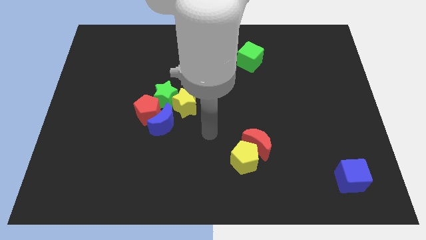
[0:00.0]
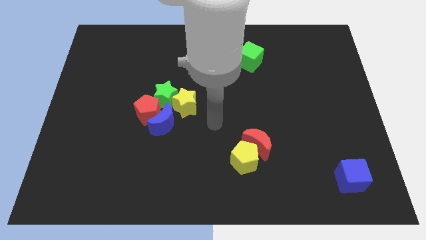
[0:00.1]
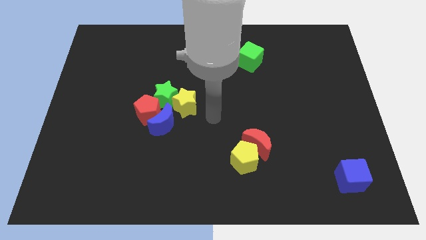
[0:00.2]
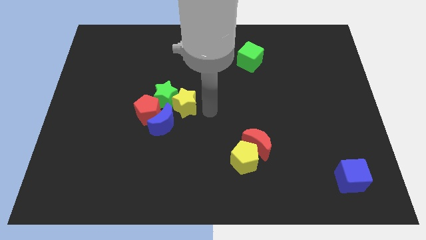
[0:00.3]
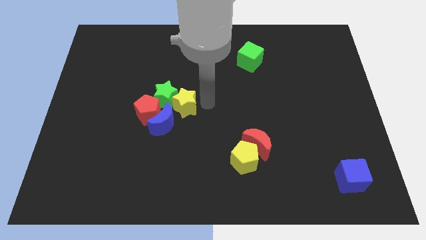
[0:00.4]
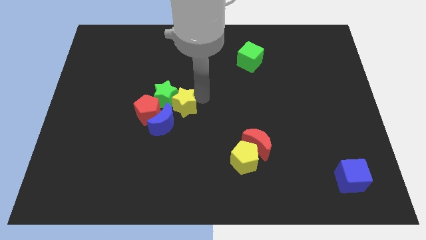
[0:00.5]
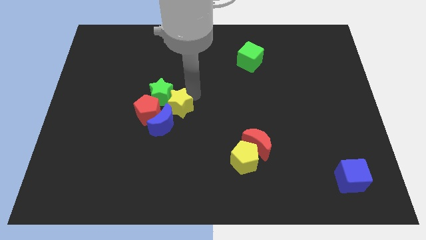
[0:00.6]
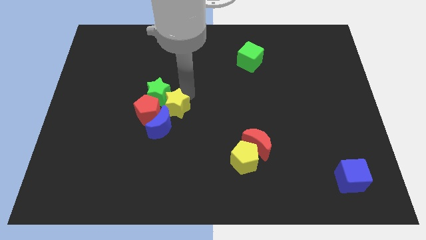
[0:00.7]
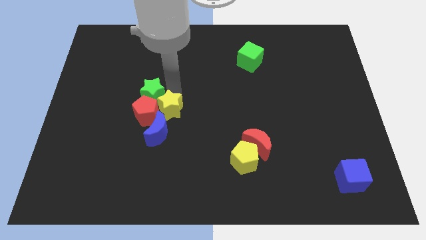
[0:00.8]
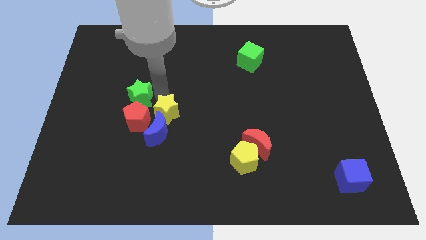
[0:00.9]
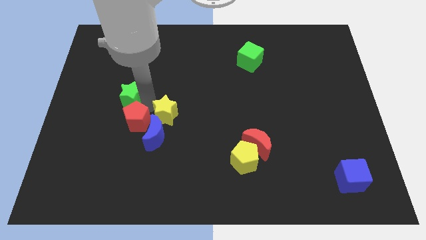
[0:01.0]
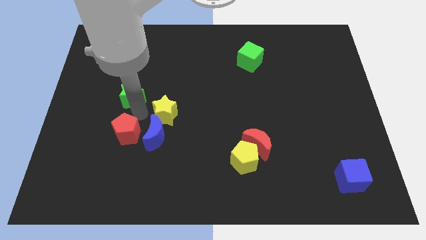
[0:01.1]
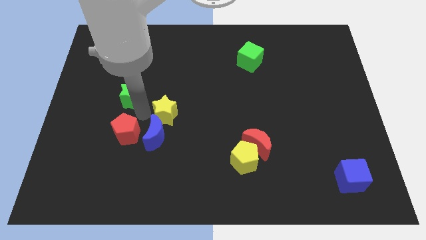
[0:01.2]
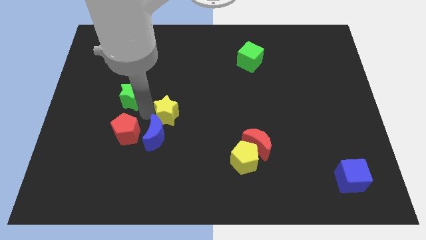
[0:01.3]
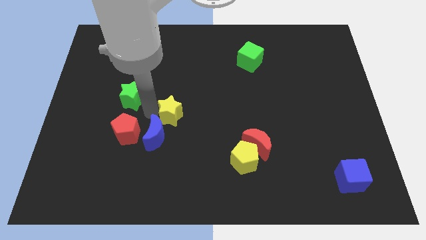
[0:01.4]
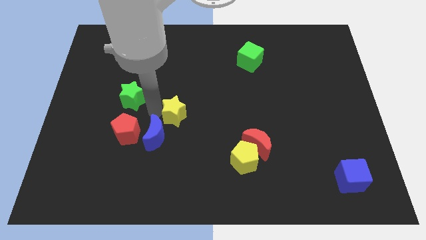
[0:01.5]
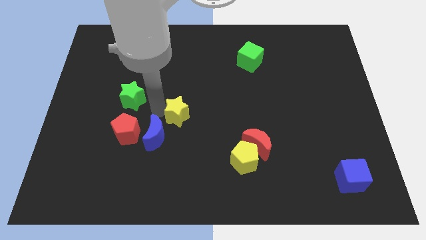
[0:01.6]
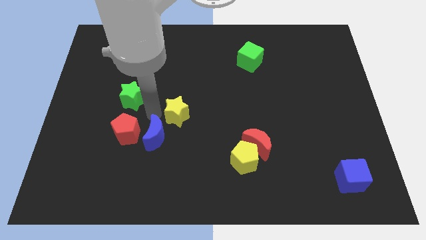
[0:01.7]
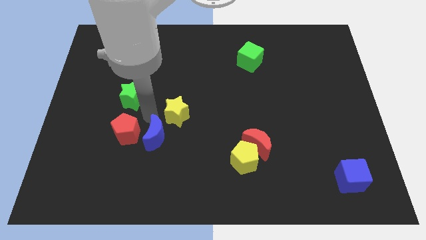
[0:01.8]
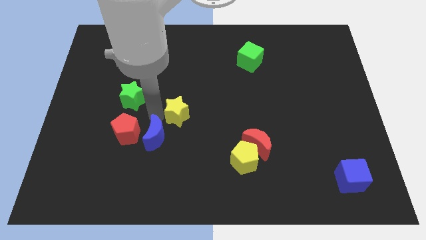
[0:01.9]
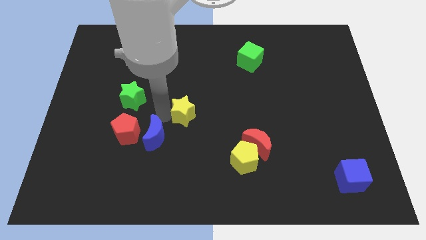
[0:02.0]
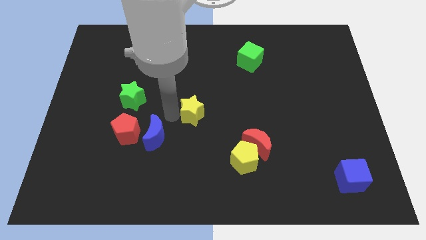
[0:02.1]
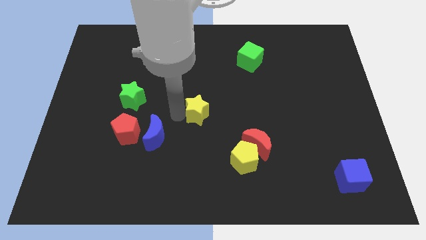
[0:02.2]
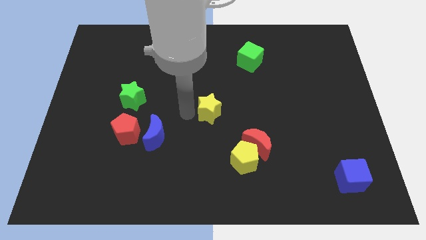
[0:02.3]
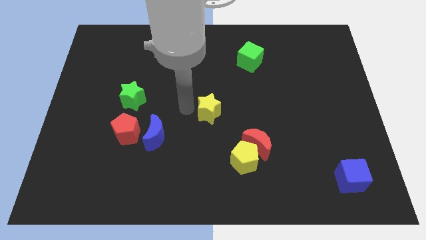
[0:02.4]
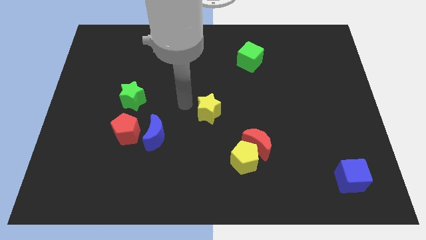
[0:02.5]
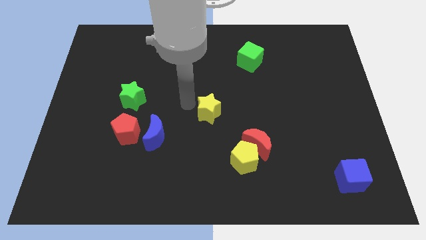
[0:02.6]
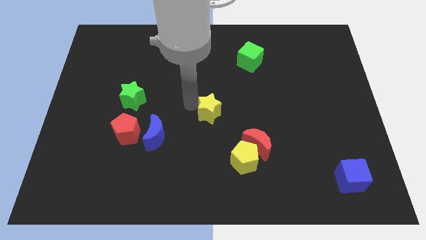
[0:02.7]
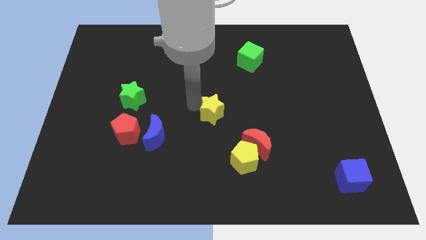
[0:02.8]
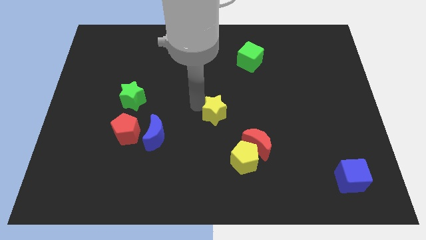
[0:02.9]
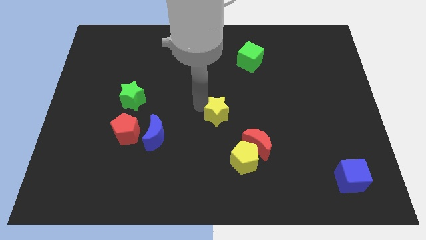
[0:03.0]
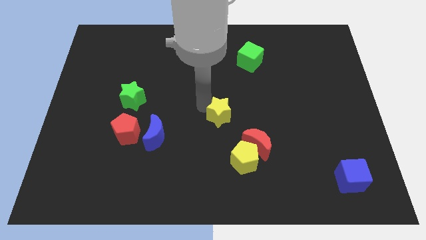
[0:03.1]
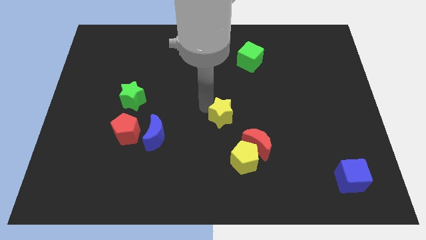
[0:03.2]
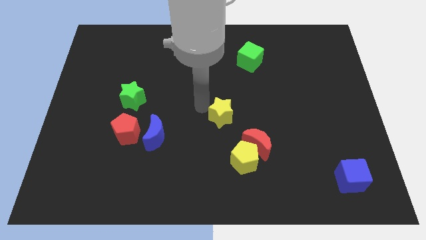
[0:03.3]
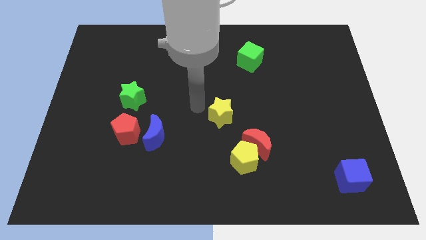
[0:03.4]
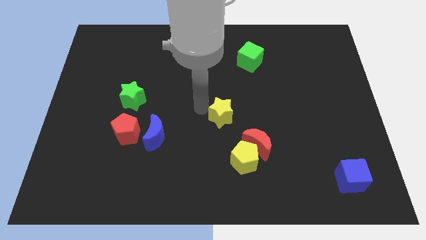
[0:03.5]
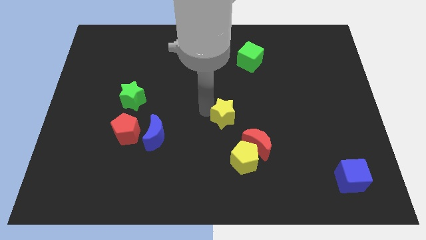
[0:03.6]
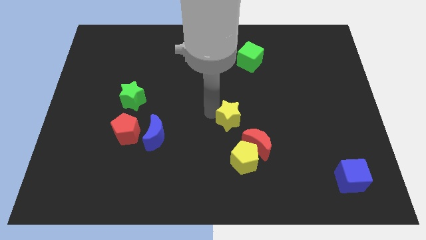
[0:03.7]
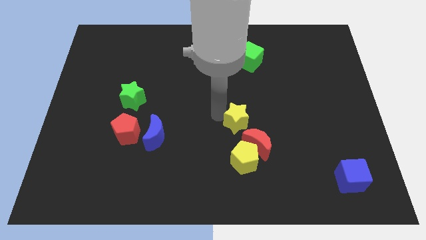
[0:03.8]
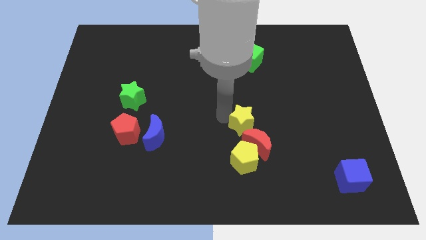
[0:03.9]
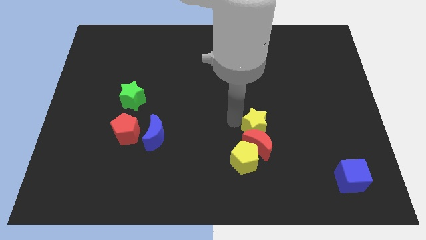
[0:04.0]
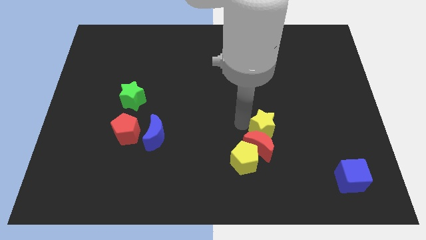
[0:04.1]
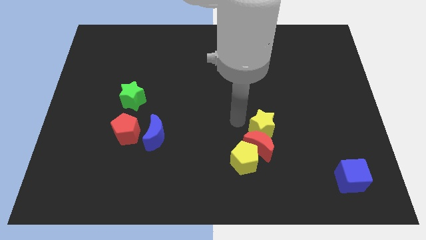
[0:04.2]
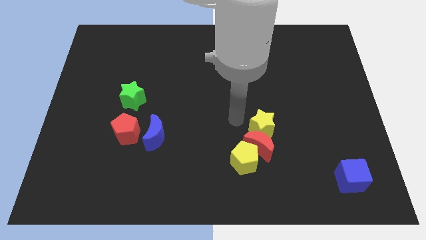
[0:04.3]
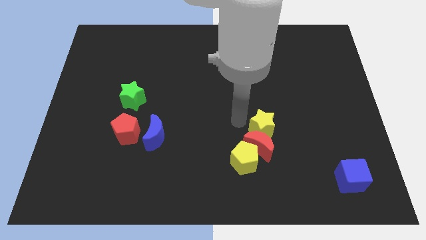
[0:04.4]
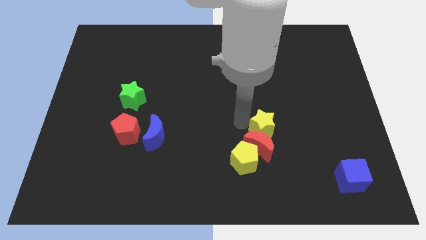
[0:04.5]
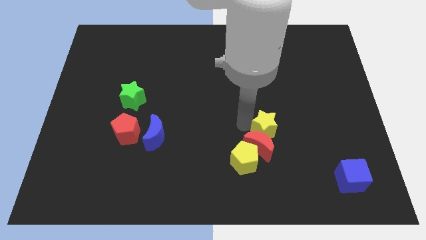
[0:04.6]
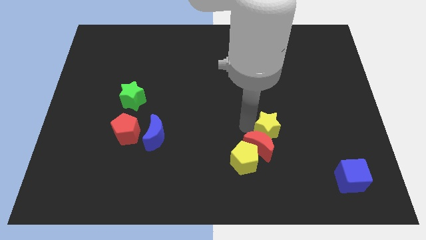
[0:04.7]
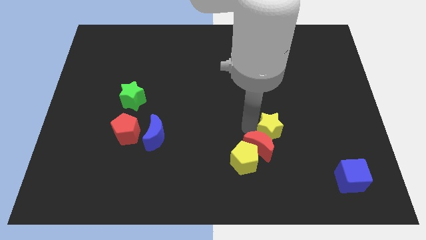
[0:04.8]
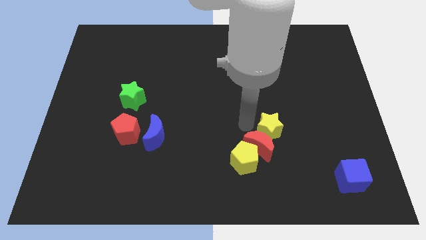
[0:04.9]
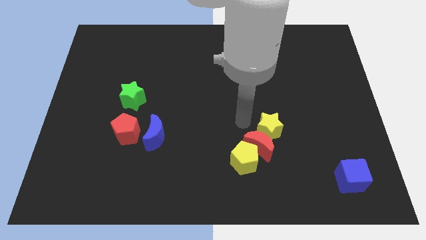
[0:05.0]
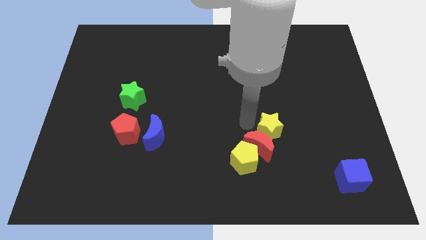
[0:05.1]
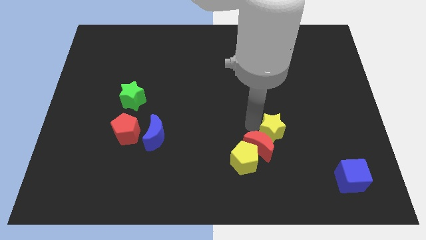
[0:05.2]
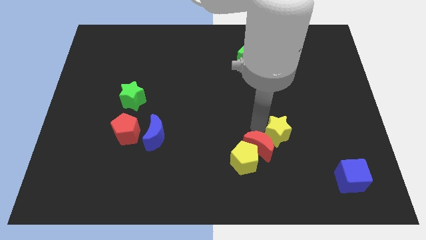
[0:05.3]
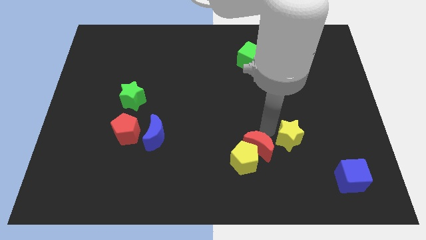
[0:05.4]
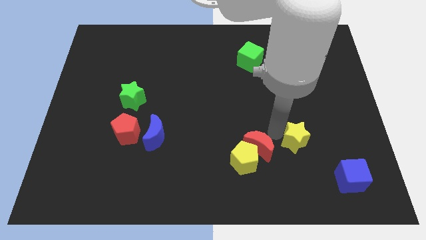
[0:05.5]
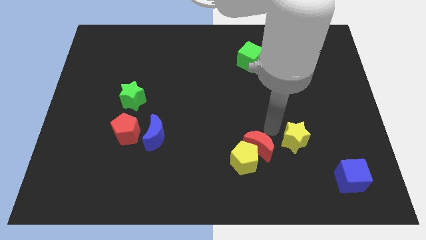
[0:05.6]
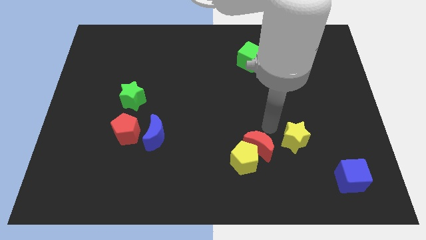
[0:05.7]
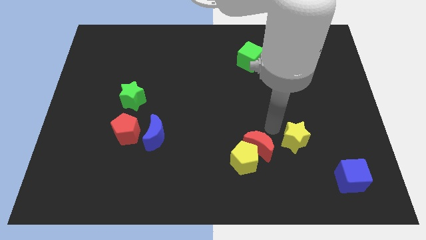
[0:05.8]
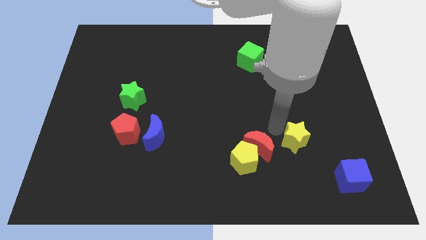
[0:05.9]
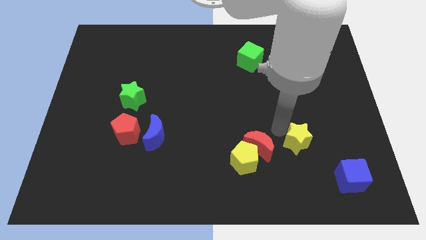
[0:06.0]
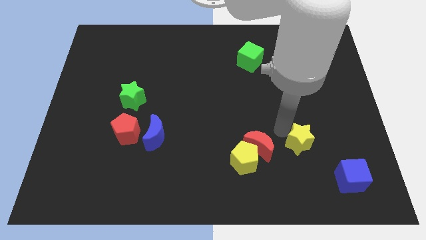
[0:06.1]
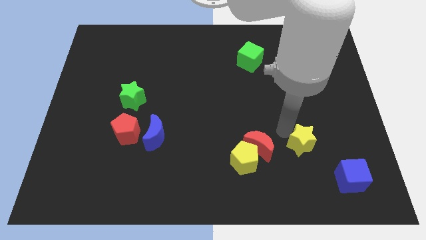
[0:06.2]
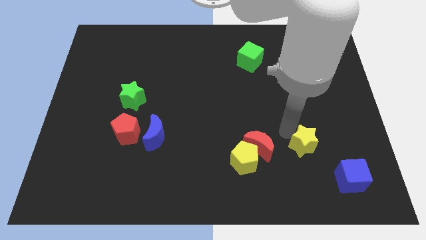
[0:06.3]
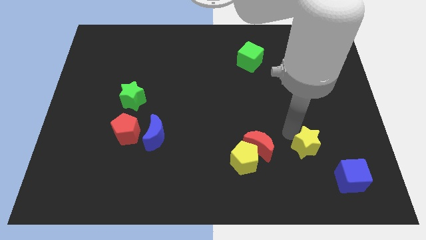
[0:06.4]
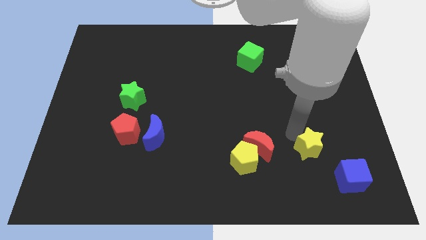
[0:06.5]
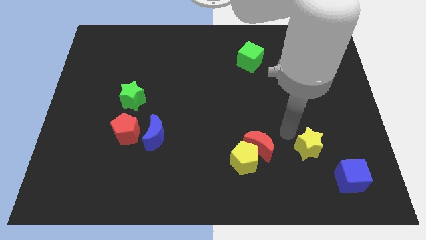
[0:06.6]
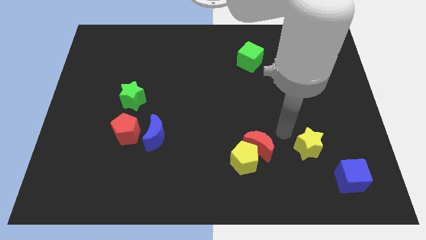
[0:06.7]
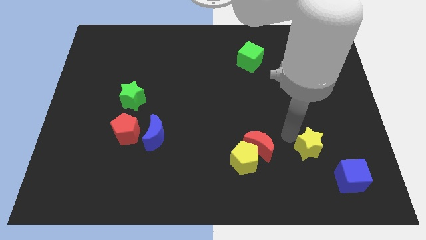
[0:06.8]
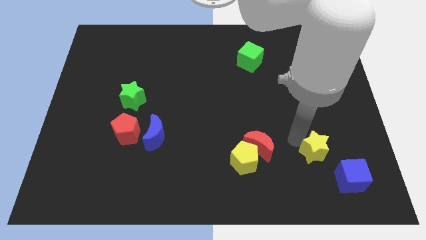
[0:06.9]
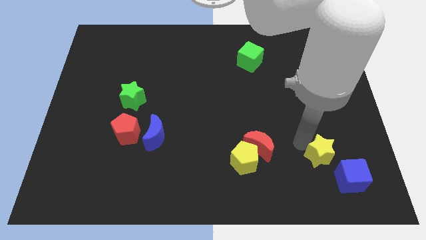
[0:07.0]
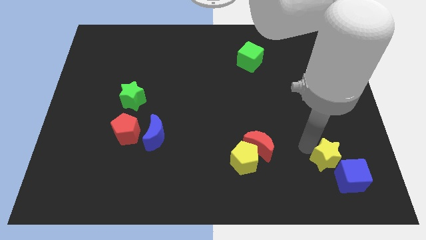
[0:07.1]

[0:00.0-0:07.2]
push the yellow star next to the blue cube
